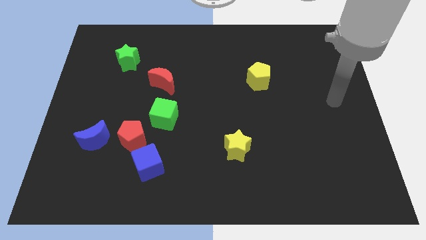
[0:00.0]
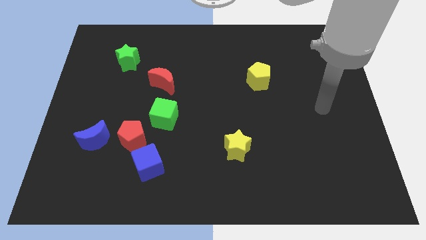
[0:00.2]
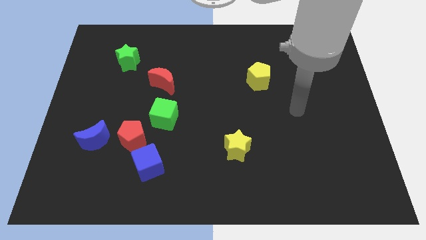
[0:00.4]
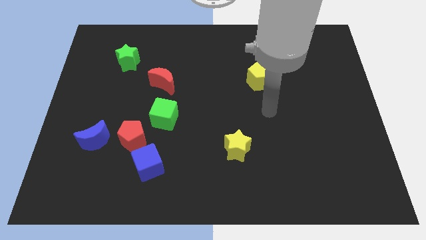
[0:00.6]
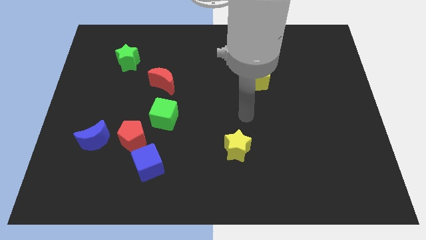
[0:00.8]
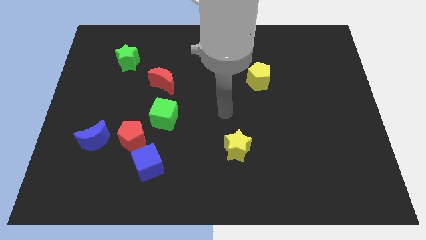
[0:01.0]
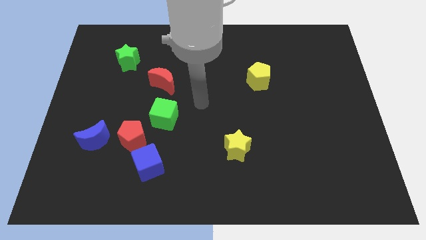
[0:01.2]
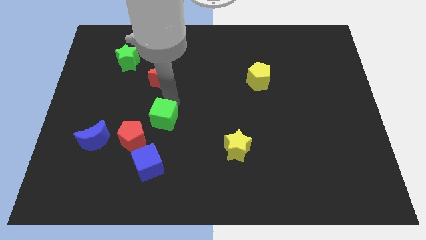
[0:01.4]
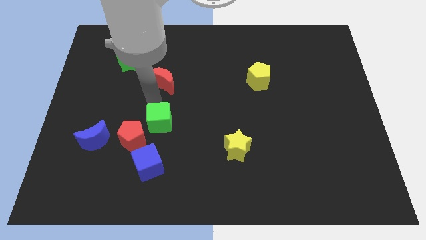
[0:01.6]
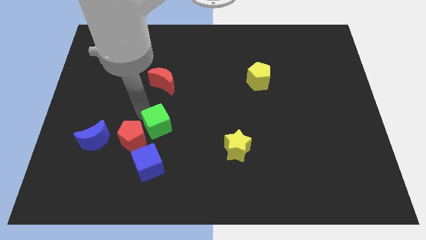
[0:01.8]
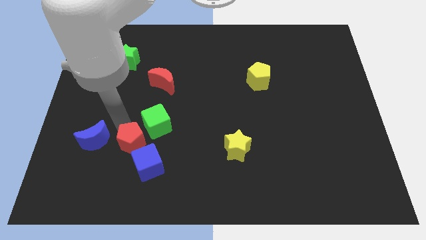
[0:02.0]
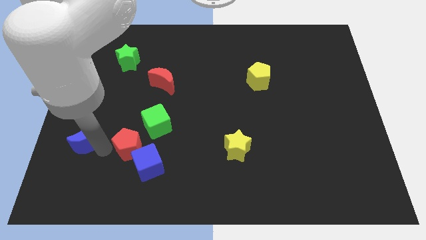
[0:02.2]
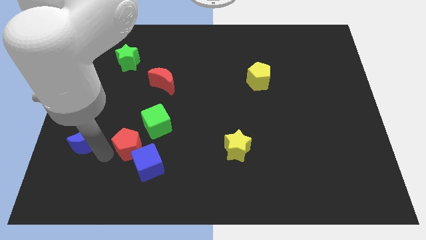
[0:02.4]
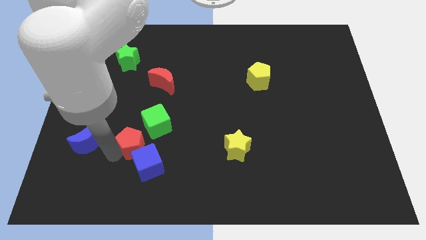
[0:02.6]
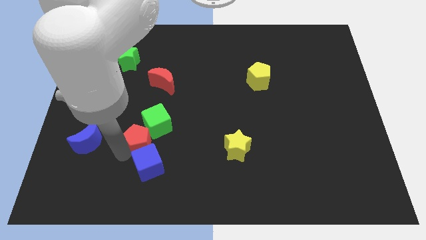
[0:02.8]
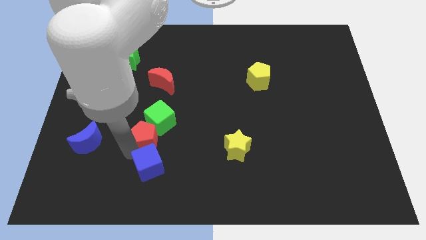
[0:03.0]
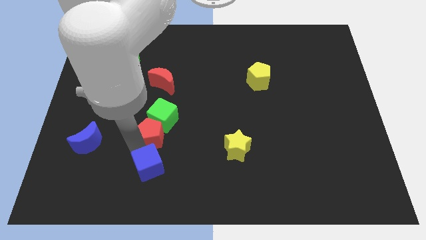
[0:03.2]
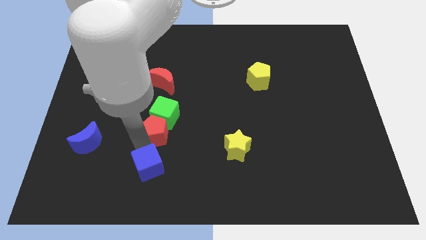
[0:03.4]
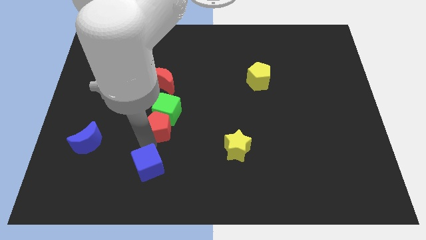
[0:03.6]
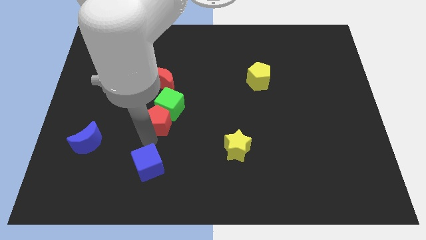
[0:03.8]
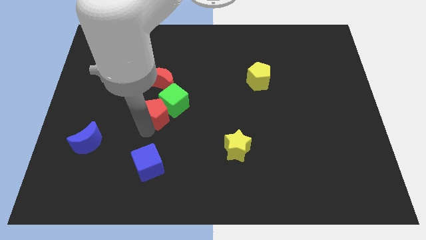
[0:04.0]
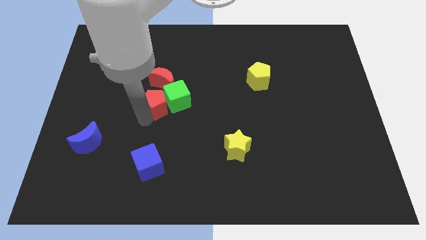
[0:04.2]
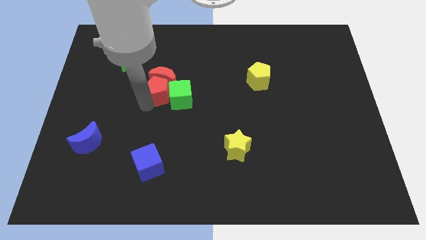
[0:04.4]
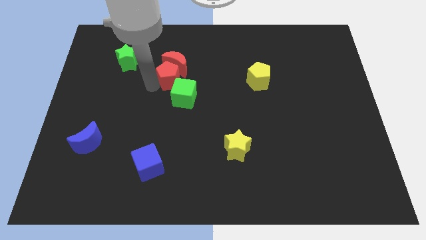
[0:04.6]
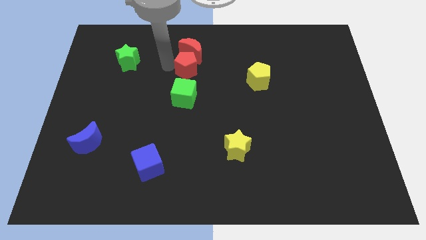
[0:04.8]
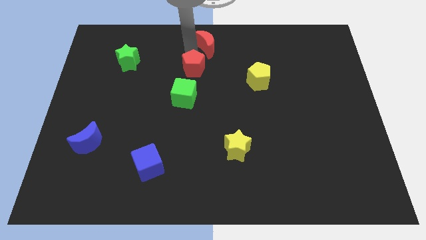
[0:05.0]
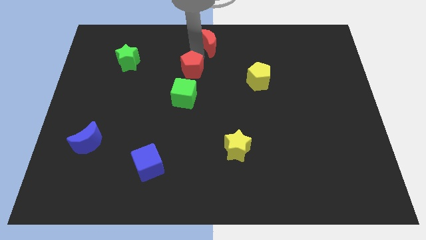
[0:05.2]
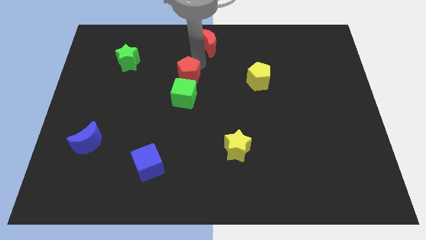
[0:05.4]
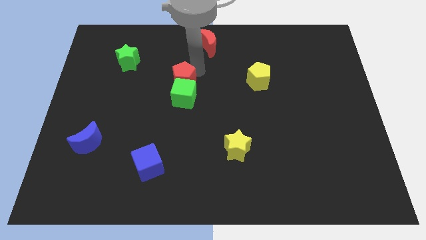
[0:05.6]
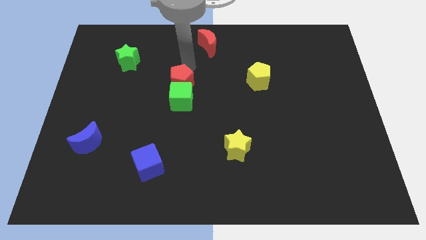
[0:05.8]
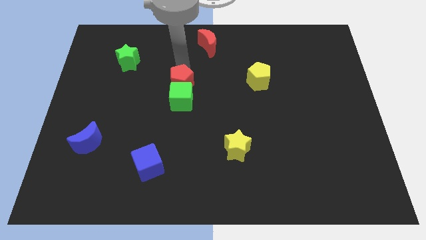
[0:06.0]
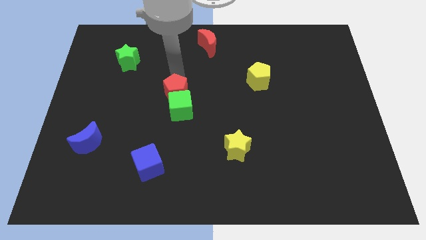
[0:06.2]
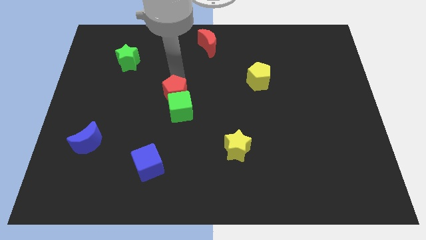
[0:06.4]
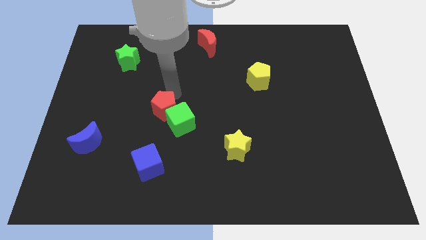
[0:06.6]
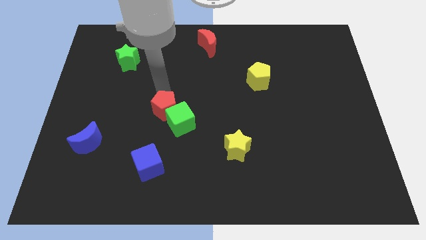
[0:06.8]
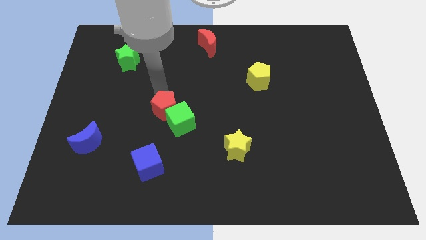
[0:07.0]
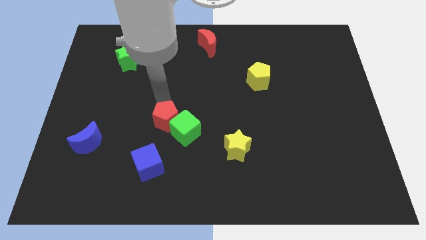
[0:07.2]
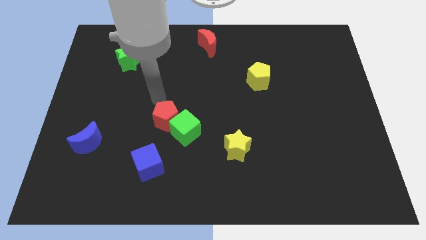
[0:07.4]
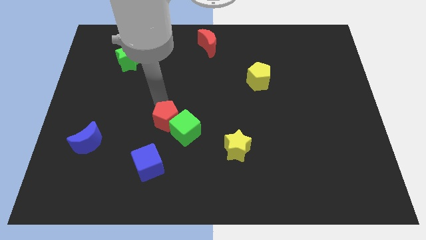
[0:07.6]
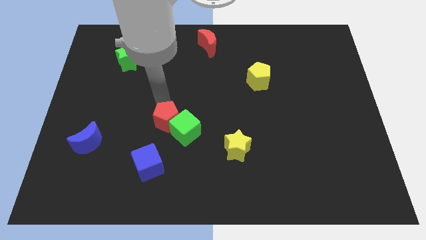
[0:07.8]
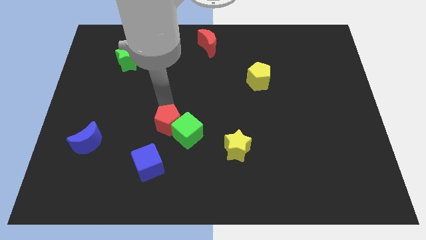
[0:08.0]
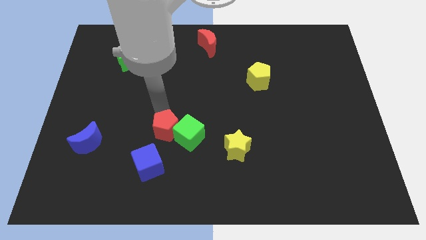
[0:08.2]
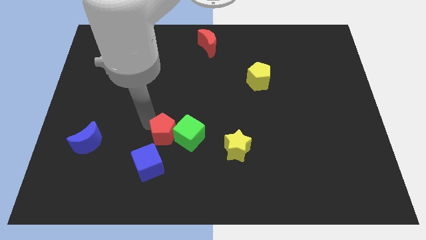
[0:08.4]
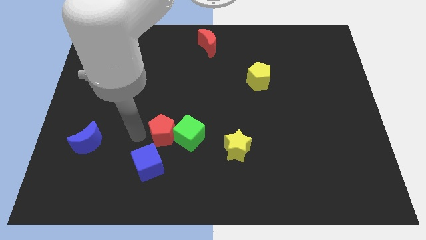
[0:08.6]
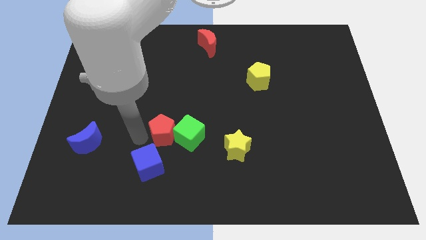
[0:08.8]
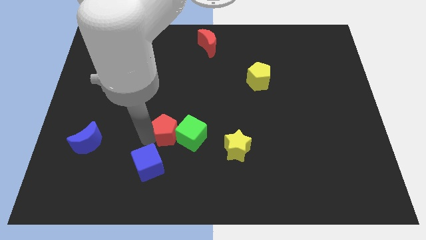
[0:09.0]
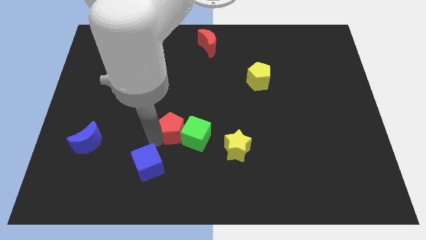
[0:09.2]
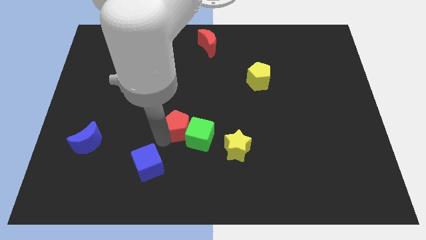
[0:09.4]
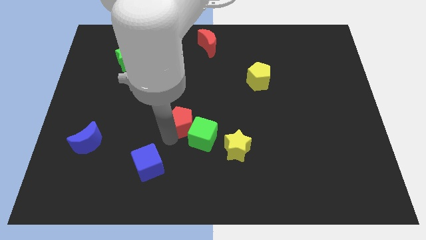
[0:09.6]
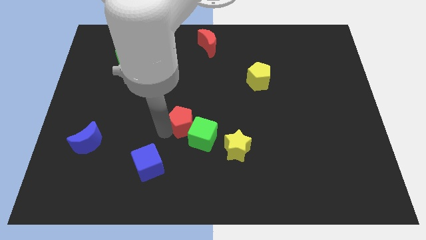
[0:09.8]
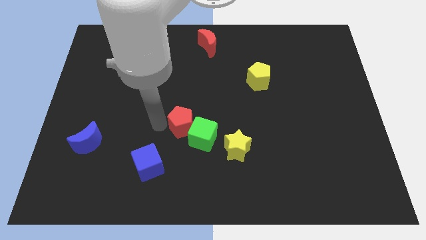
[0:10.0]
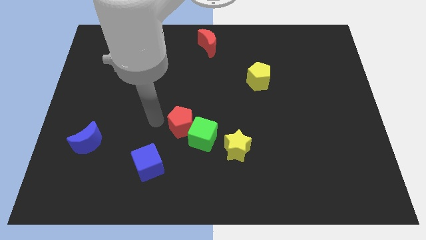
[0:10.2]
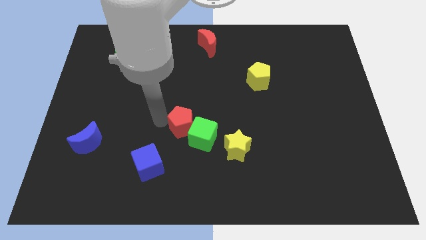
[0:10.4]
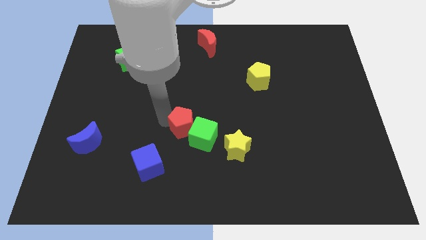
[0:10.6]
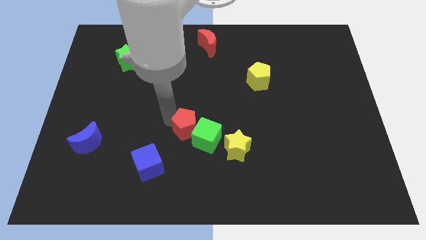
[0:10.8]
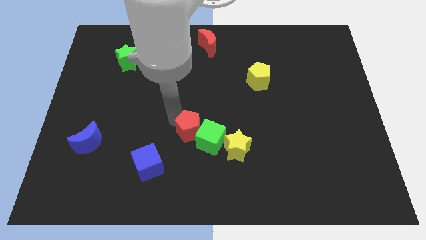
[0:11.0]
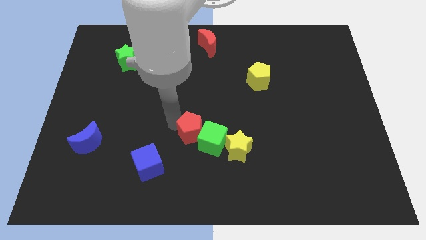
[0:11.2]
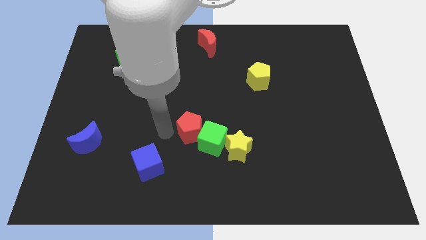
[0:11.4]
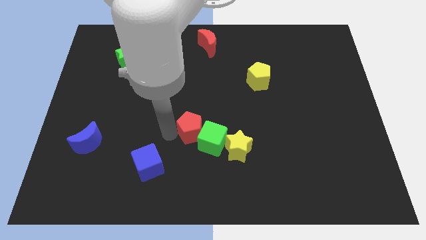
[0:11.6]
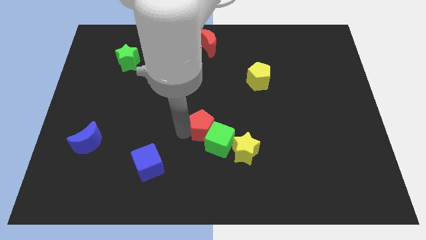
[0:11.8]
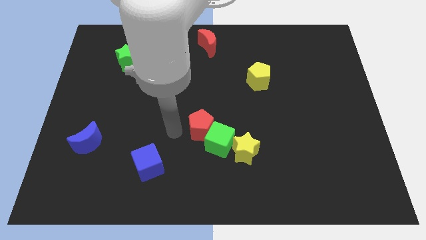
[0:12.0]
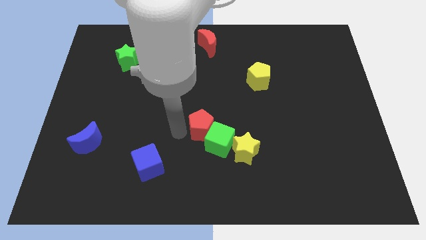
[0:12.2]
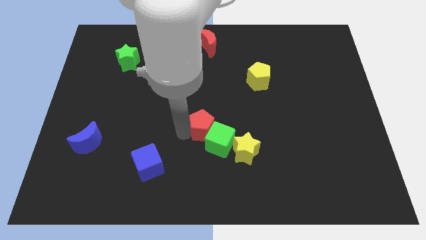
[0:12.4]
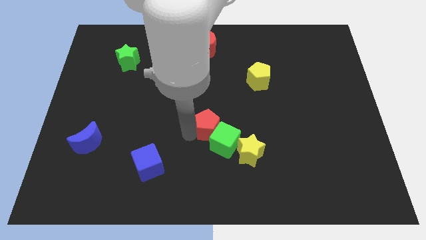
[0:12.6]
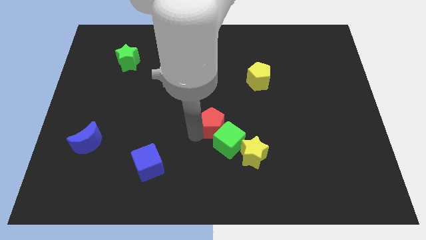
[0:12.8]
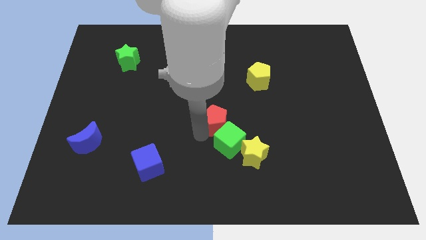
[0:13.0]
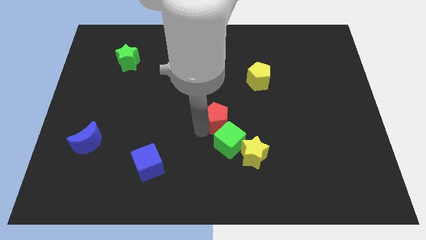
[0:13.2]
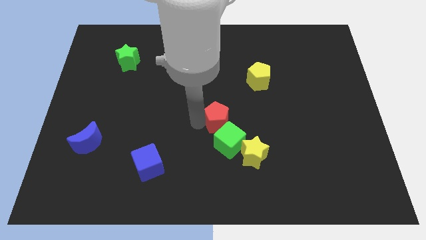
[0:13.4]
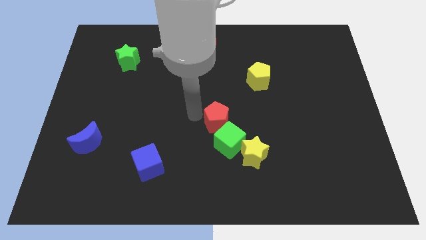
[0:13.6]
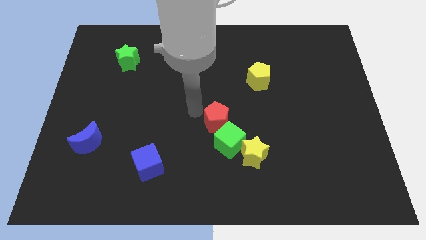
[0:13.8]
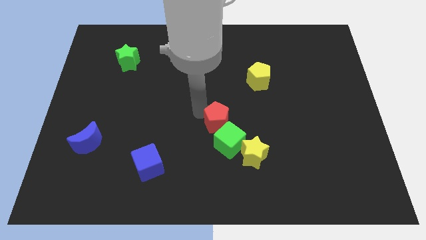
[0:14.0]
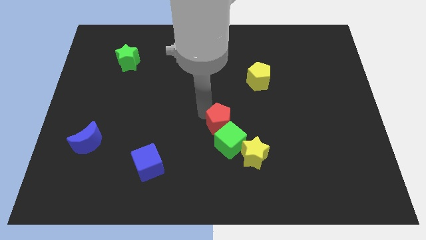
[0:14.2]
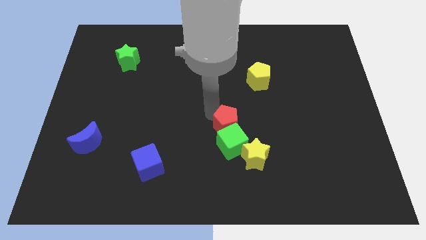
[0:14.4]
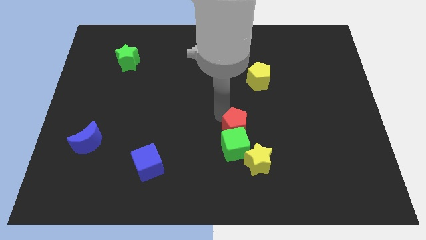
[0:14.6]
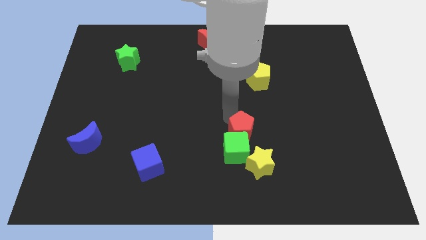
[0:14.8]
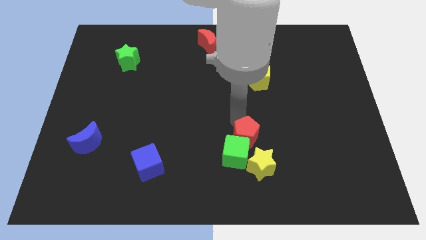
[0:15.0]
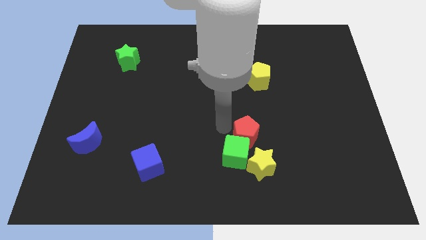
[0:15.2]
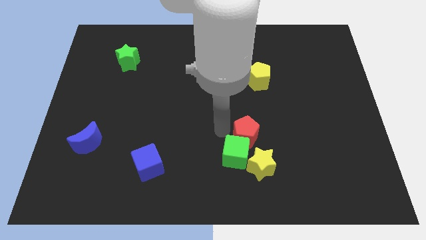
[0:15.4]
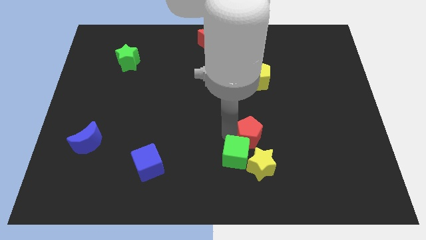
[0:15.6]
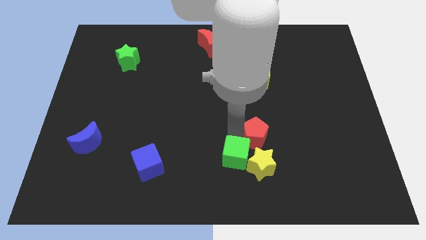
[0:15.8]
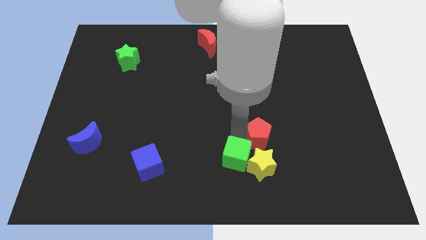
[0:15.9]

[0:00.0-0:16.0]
push the red pentagon diagonally up and to the right of the yellow star
